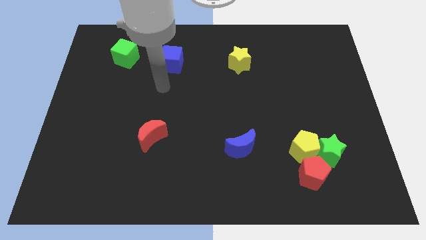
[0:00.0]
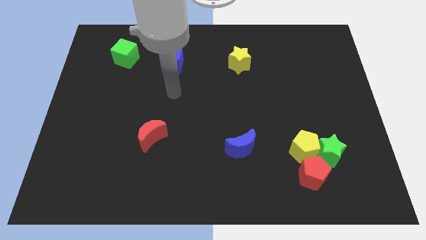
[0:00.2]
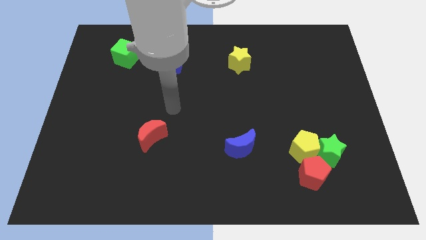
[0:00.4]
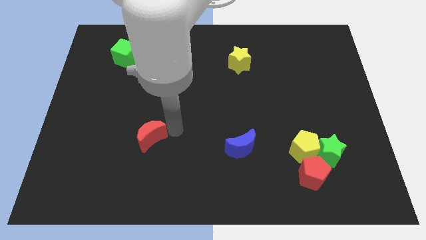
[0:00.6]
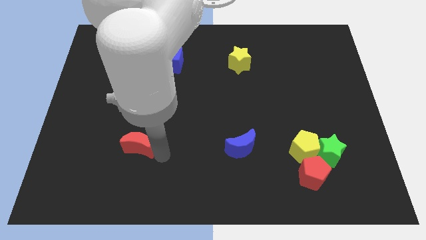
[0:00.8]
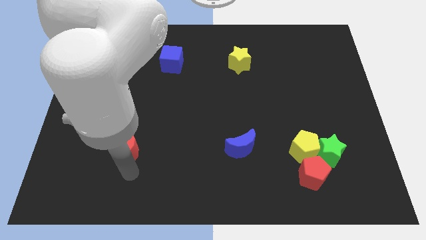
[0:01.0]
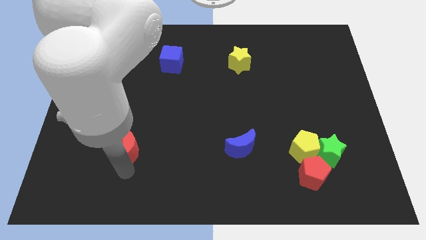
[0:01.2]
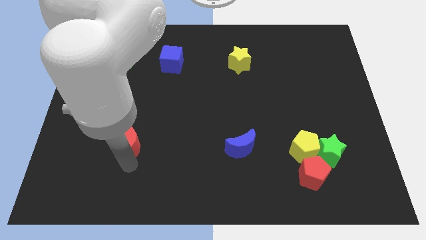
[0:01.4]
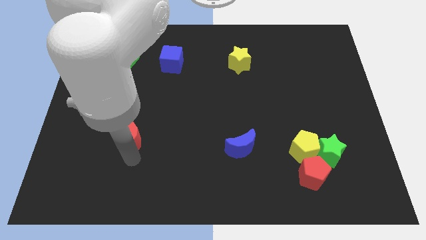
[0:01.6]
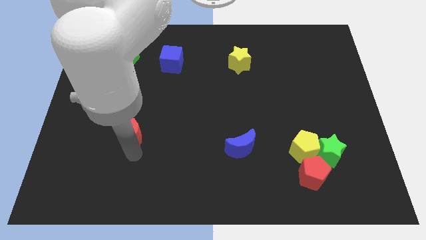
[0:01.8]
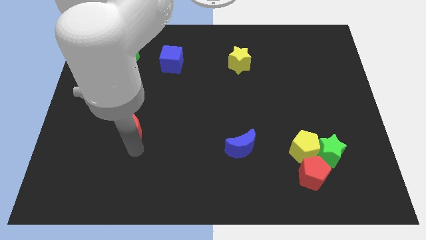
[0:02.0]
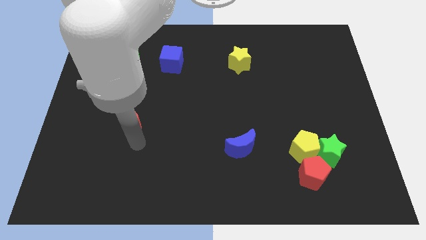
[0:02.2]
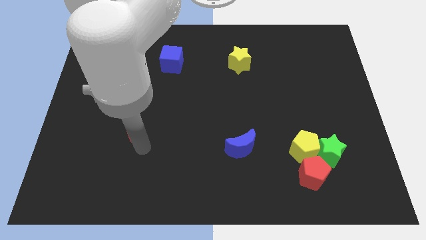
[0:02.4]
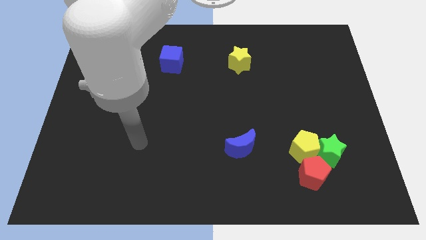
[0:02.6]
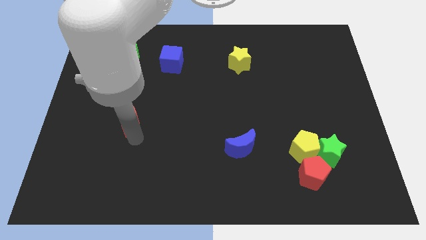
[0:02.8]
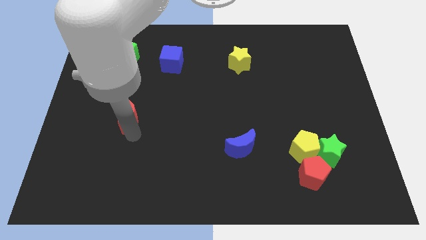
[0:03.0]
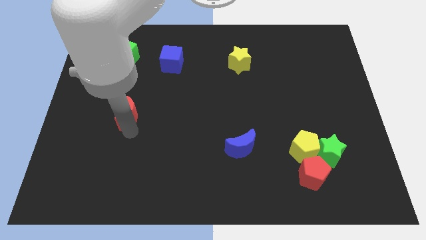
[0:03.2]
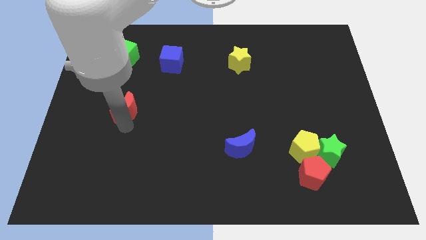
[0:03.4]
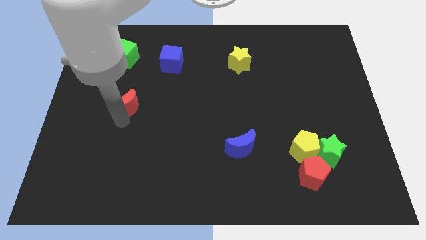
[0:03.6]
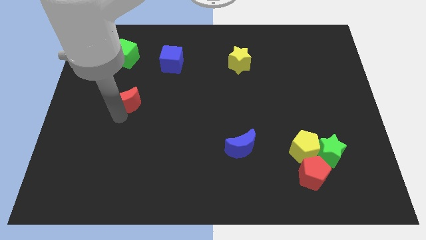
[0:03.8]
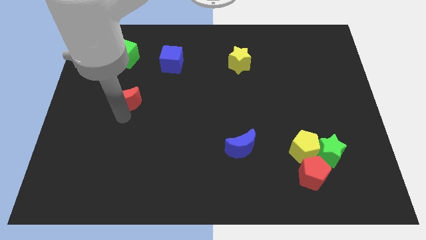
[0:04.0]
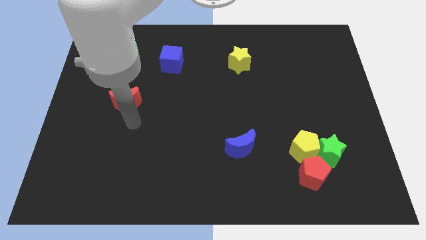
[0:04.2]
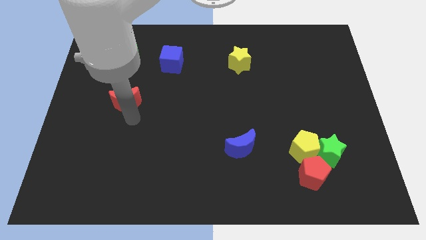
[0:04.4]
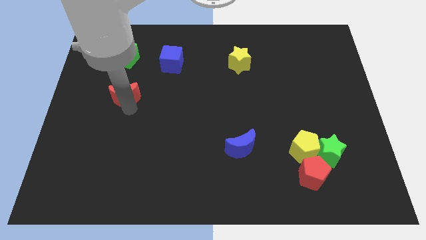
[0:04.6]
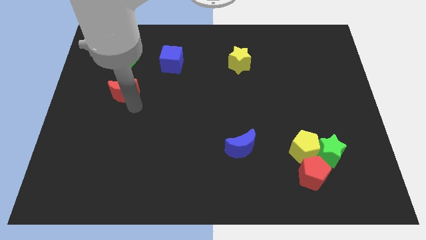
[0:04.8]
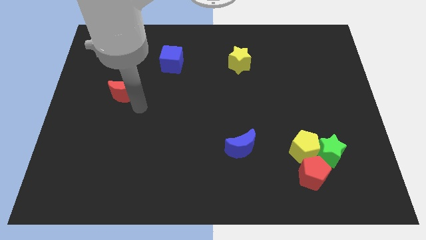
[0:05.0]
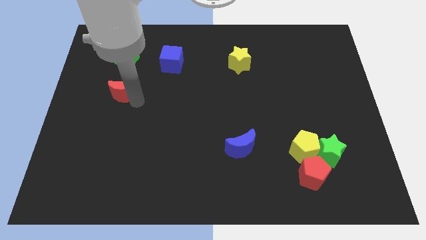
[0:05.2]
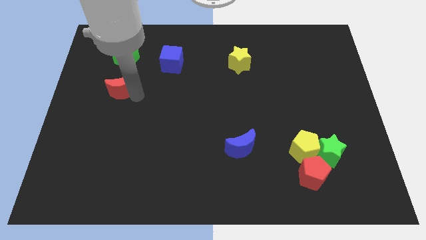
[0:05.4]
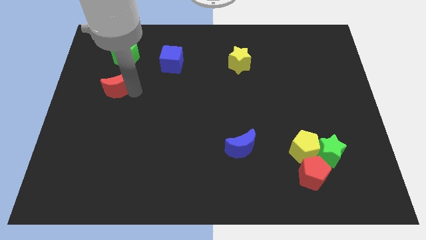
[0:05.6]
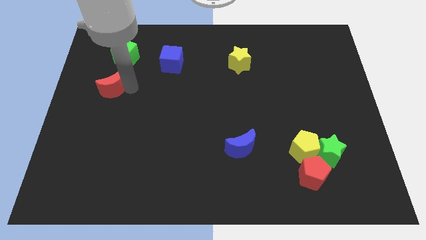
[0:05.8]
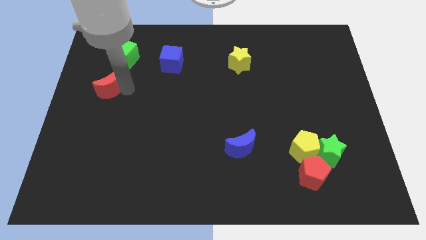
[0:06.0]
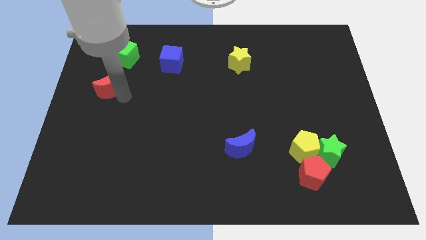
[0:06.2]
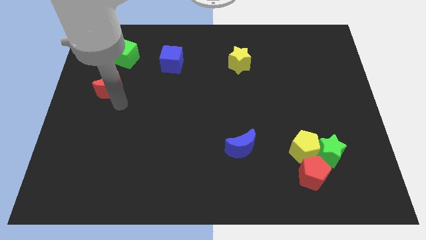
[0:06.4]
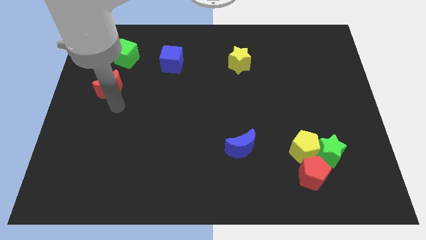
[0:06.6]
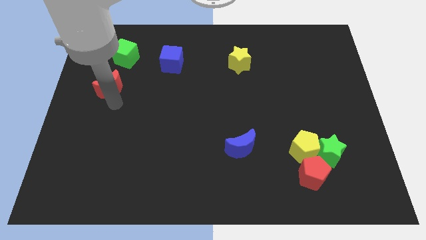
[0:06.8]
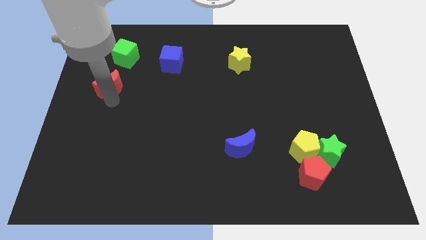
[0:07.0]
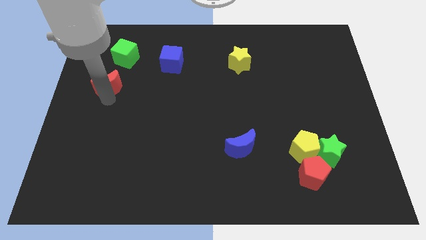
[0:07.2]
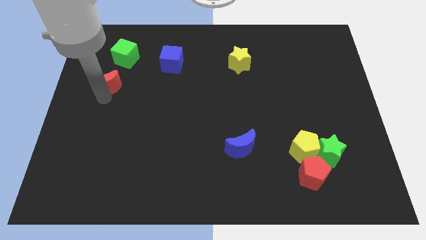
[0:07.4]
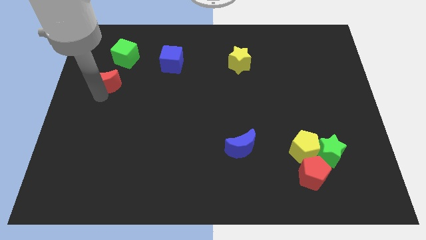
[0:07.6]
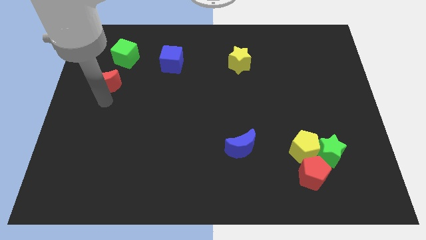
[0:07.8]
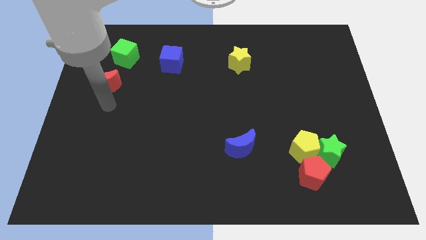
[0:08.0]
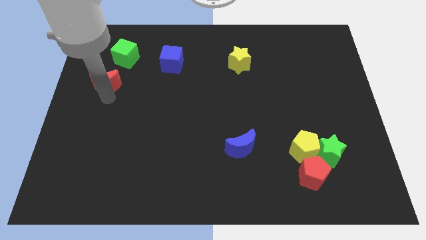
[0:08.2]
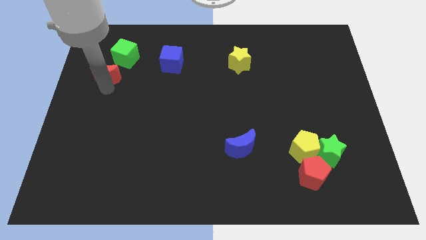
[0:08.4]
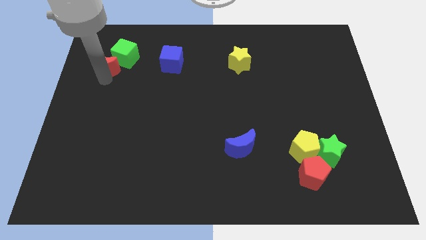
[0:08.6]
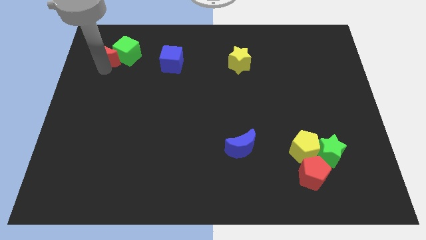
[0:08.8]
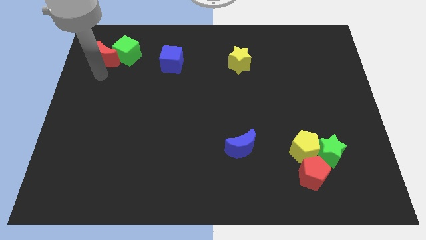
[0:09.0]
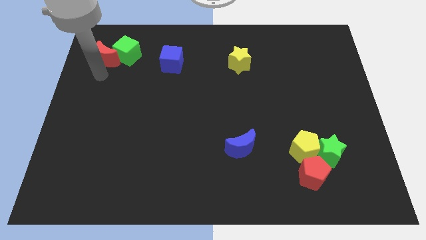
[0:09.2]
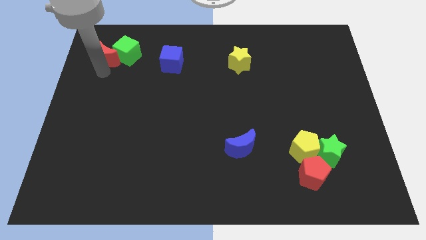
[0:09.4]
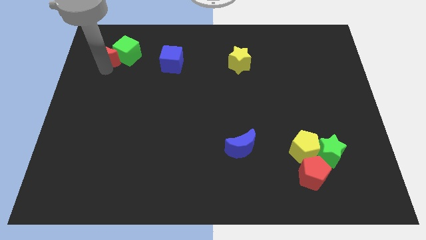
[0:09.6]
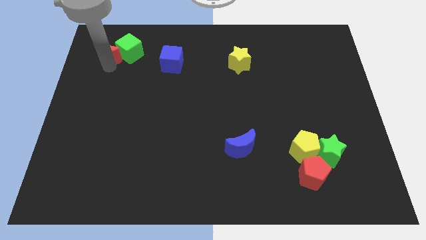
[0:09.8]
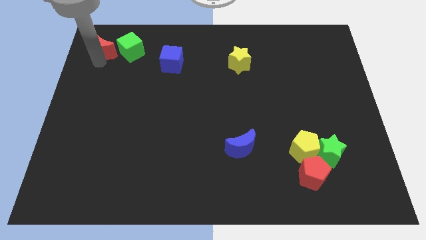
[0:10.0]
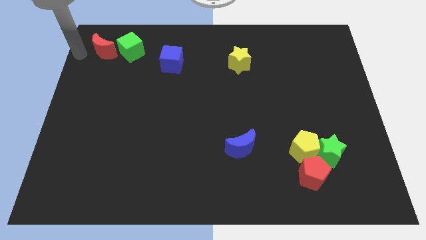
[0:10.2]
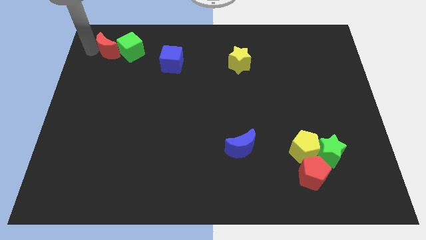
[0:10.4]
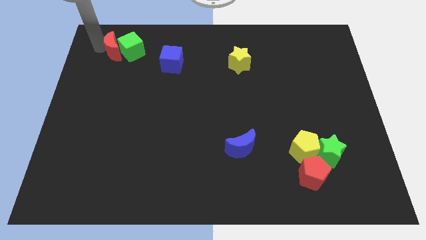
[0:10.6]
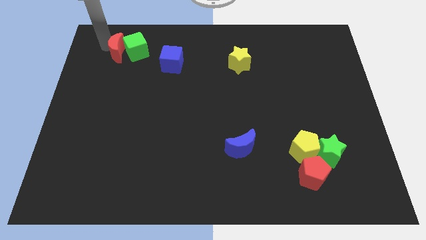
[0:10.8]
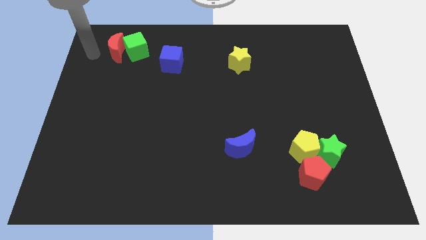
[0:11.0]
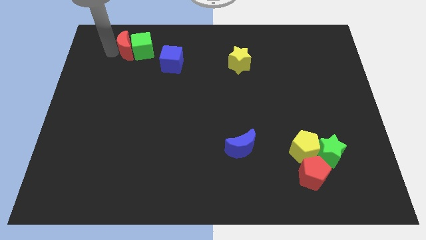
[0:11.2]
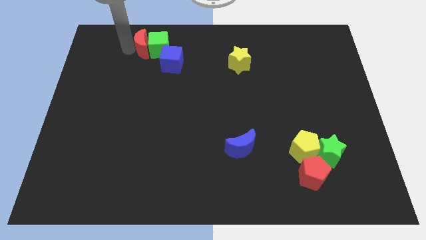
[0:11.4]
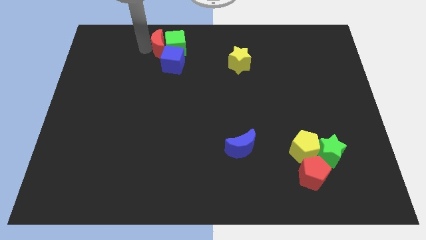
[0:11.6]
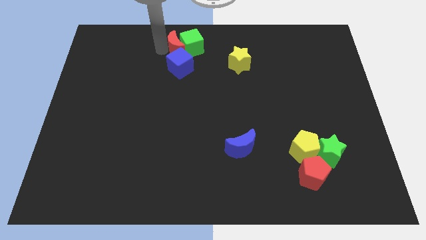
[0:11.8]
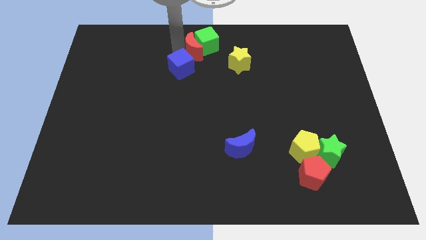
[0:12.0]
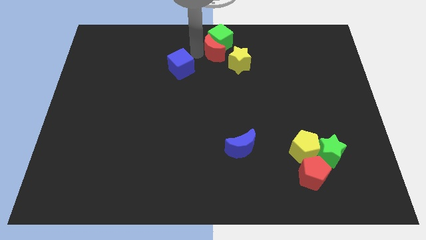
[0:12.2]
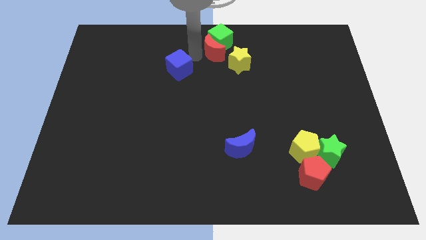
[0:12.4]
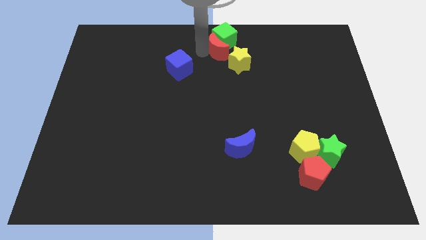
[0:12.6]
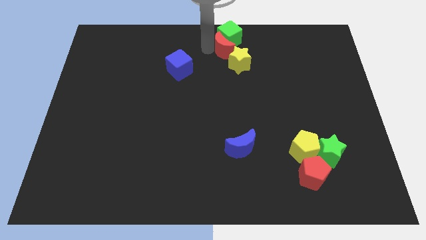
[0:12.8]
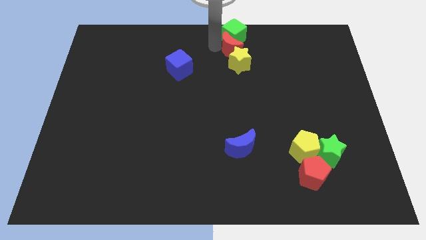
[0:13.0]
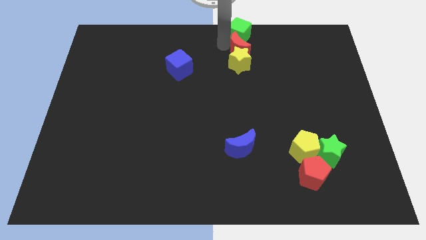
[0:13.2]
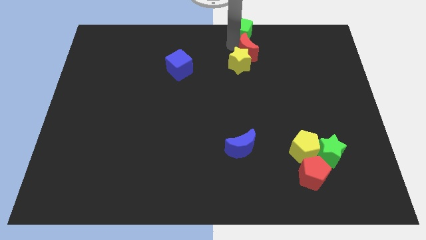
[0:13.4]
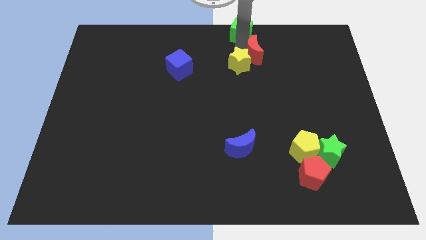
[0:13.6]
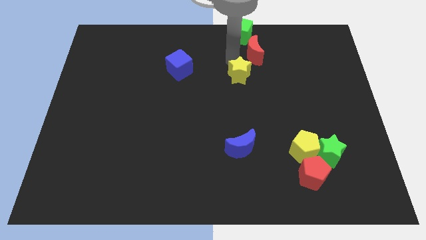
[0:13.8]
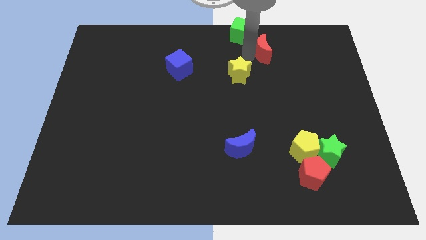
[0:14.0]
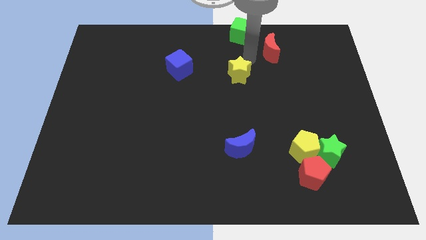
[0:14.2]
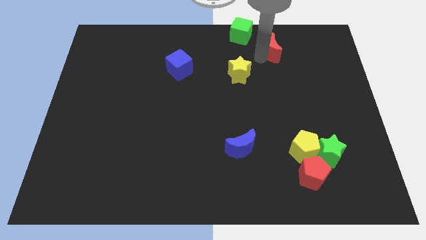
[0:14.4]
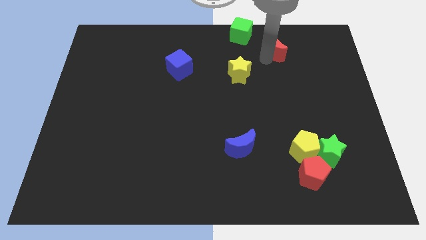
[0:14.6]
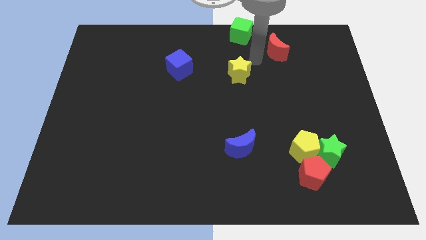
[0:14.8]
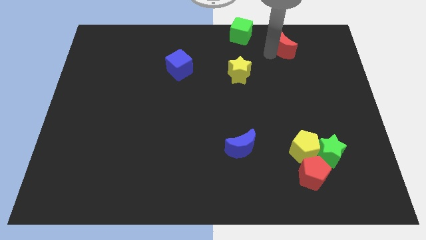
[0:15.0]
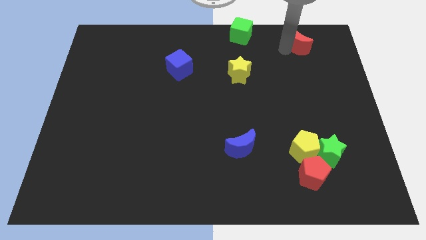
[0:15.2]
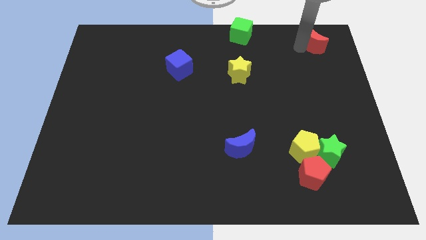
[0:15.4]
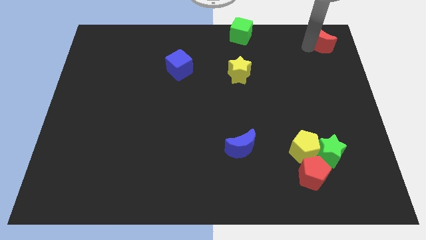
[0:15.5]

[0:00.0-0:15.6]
push the red moon to the top right of the board
